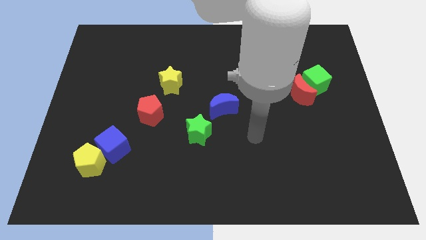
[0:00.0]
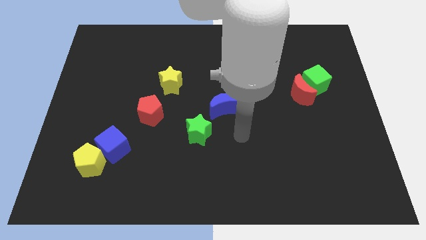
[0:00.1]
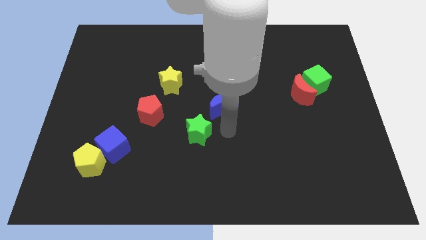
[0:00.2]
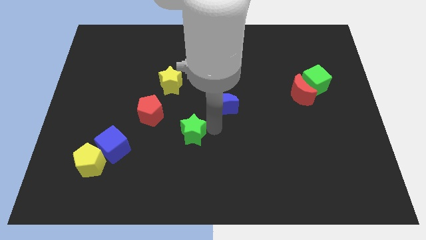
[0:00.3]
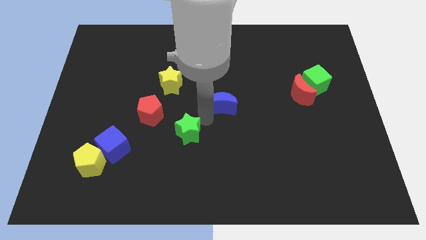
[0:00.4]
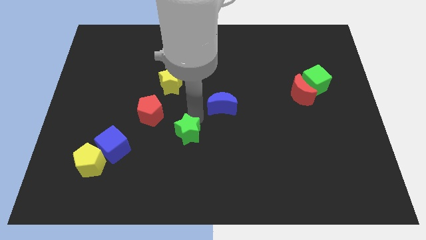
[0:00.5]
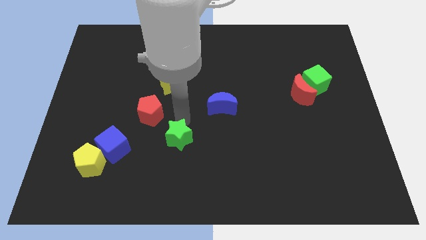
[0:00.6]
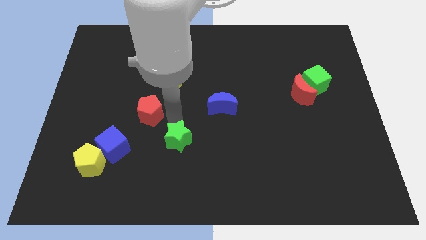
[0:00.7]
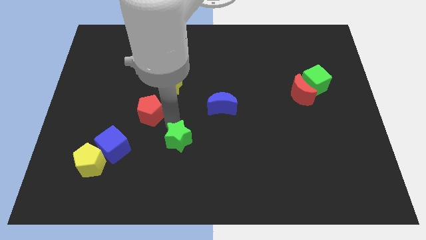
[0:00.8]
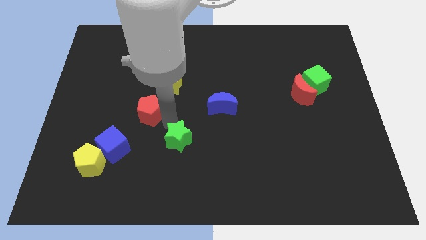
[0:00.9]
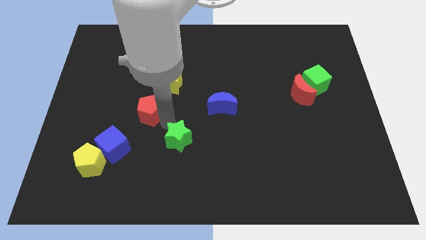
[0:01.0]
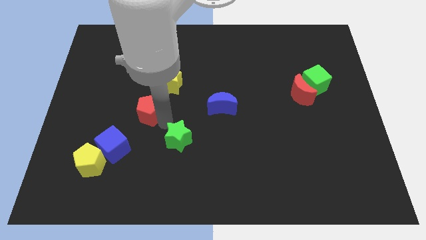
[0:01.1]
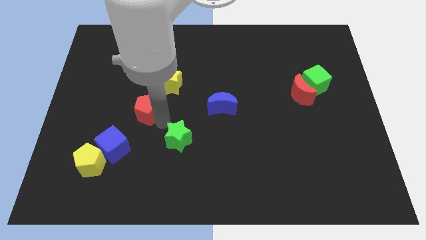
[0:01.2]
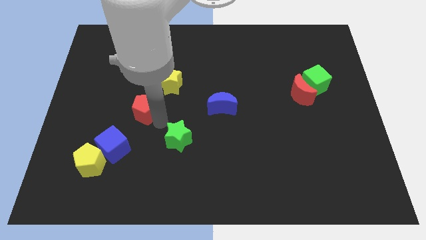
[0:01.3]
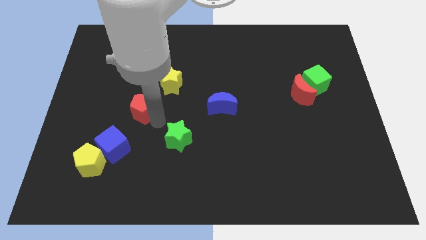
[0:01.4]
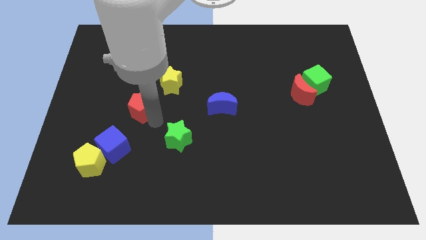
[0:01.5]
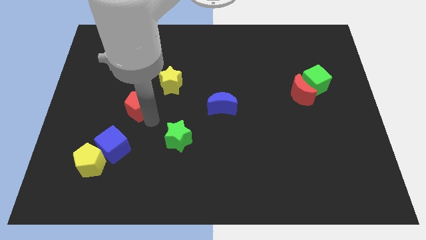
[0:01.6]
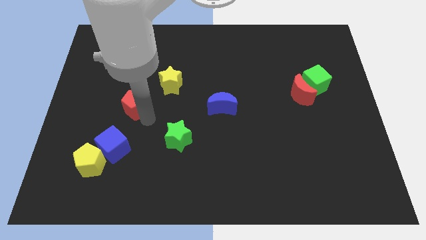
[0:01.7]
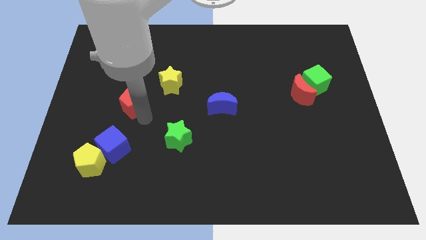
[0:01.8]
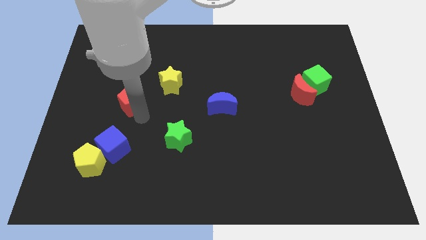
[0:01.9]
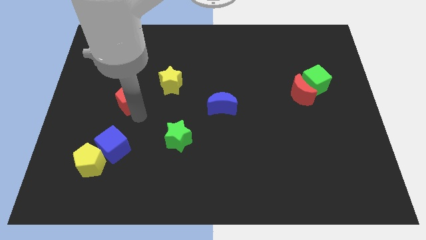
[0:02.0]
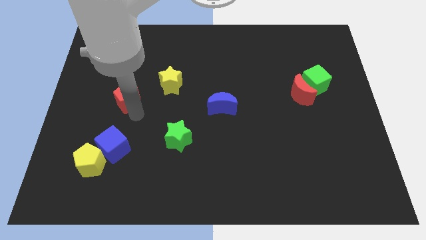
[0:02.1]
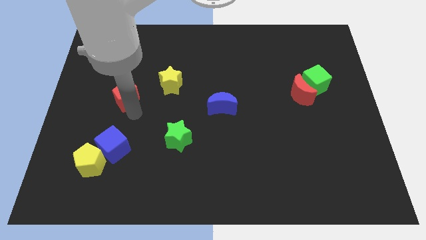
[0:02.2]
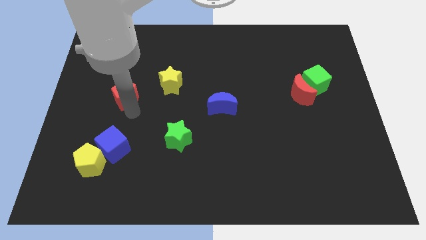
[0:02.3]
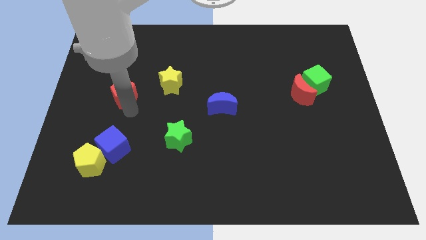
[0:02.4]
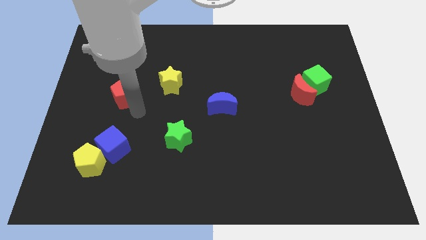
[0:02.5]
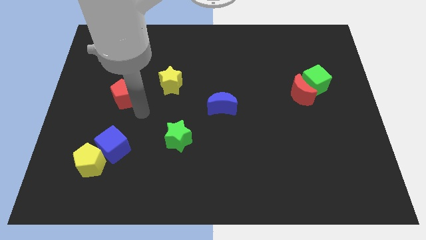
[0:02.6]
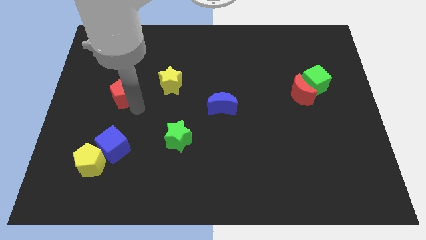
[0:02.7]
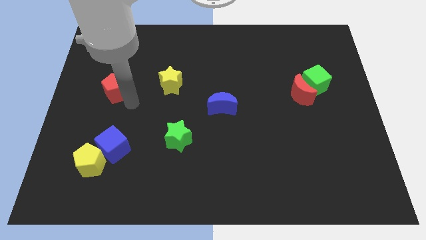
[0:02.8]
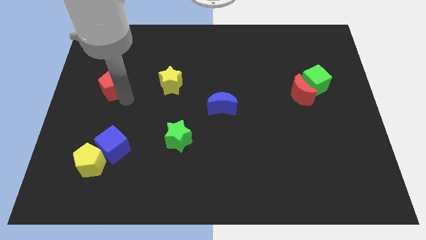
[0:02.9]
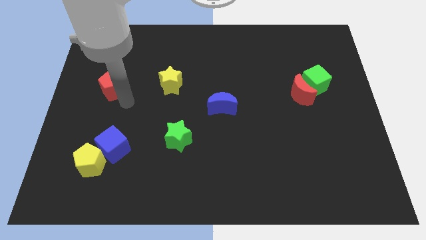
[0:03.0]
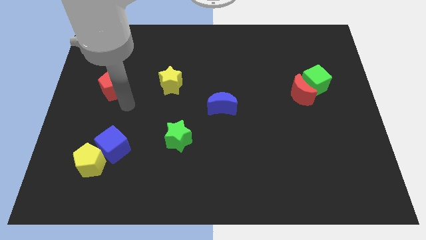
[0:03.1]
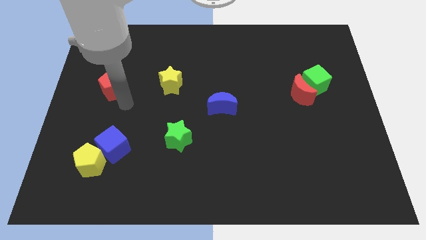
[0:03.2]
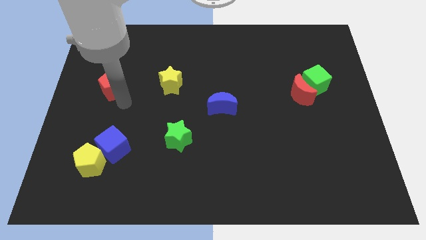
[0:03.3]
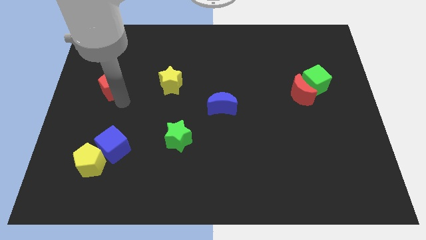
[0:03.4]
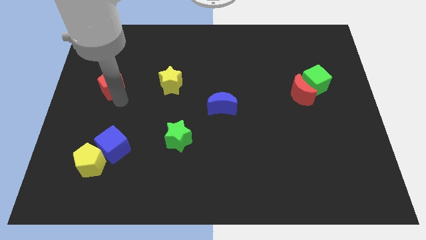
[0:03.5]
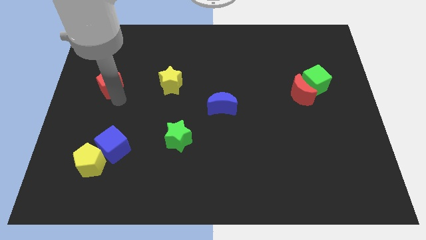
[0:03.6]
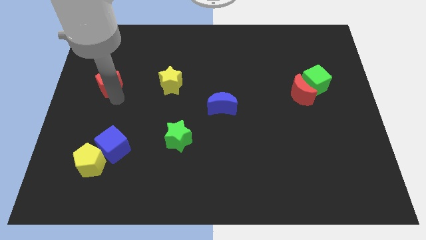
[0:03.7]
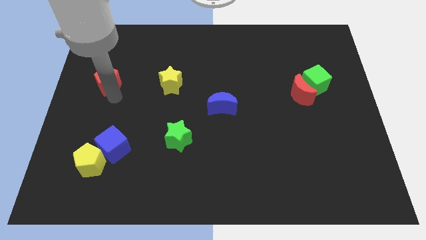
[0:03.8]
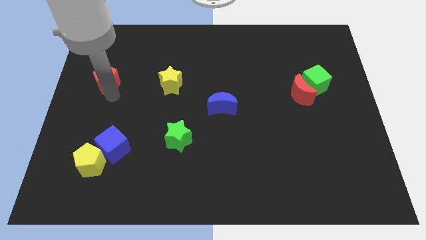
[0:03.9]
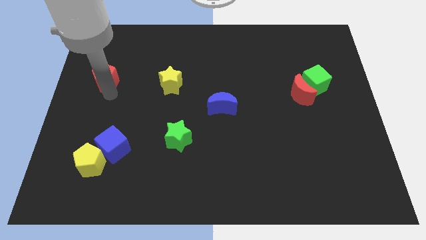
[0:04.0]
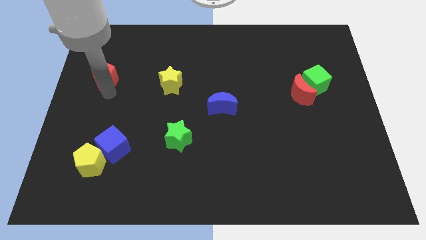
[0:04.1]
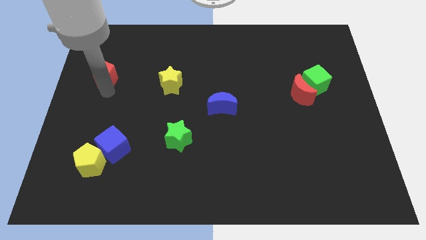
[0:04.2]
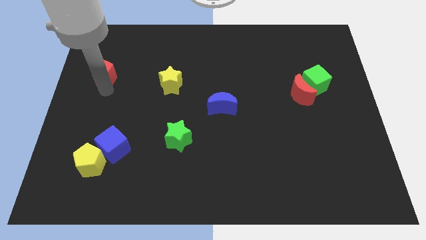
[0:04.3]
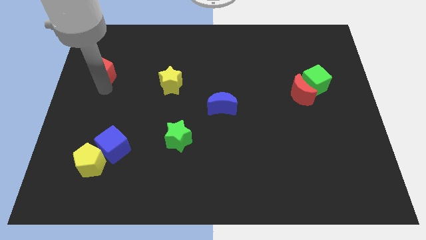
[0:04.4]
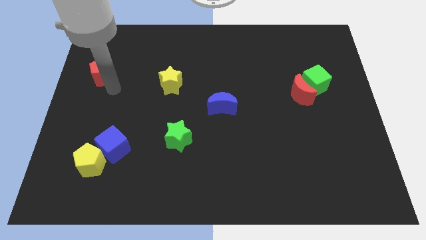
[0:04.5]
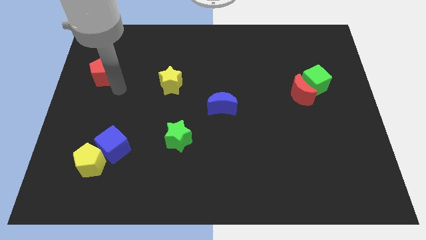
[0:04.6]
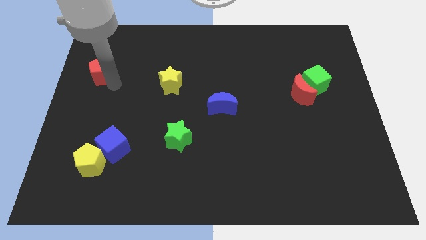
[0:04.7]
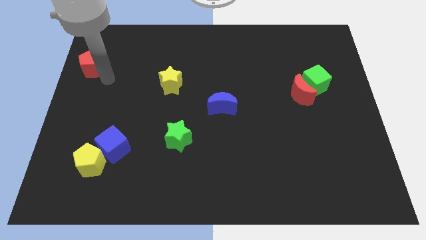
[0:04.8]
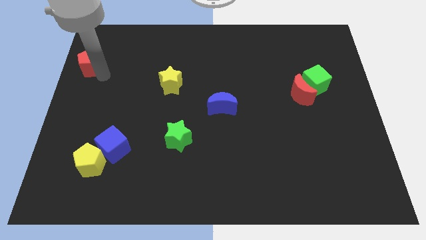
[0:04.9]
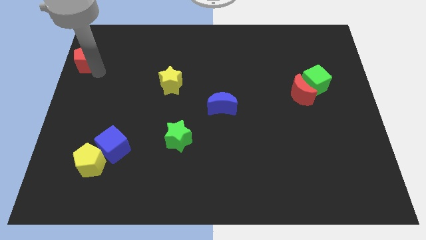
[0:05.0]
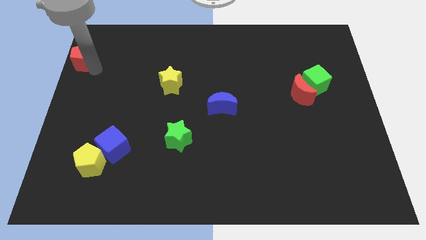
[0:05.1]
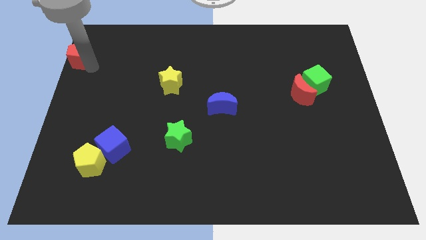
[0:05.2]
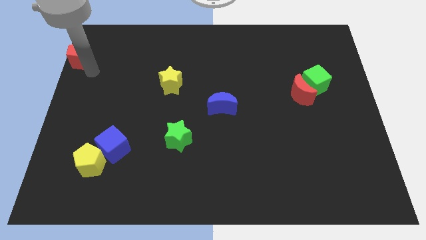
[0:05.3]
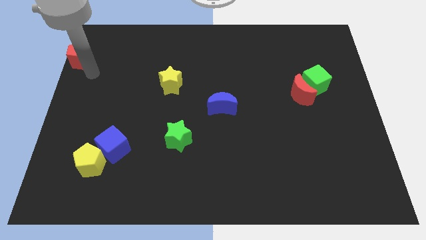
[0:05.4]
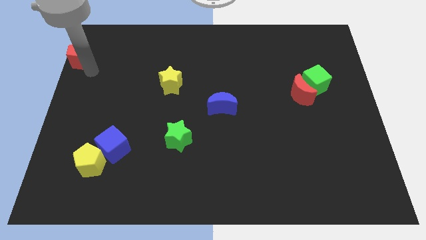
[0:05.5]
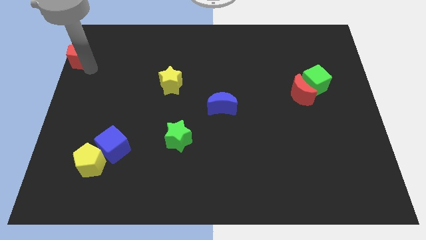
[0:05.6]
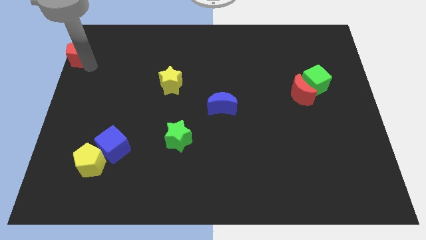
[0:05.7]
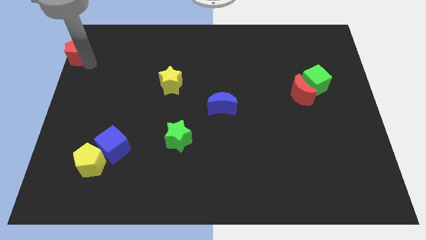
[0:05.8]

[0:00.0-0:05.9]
slide the red pentagon to the top left of the board

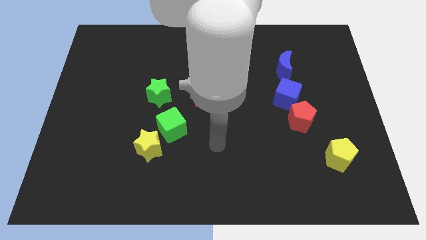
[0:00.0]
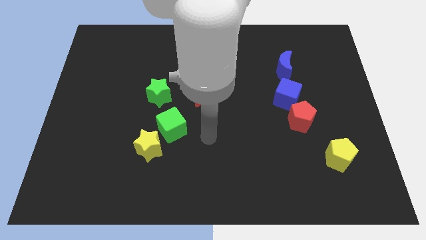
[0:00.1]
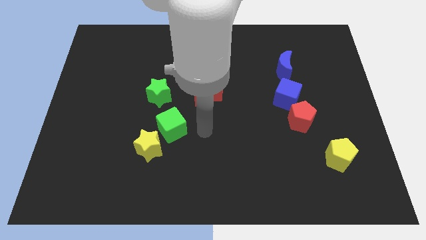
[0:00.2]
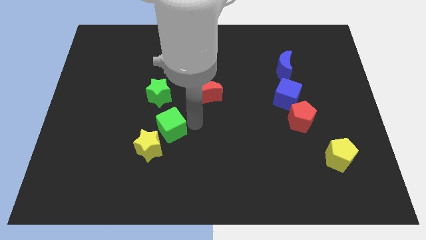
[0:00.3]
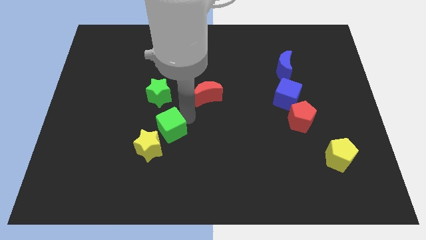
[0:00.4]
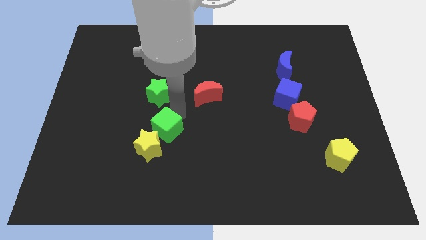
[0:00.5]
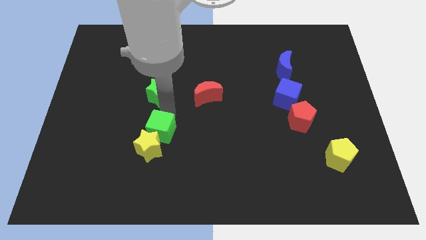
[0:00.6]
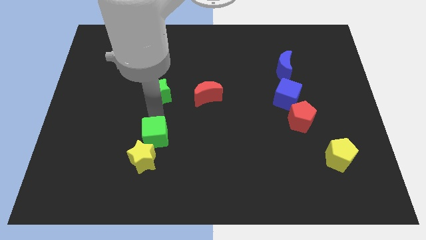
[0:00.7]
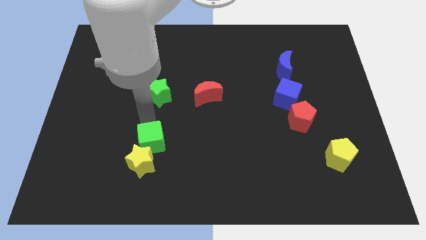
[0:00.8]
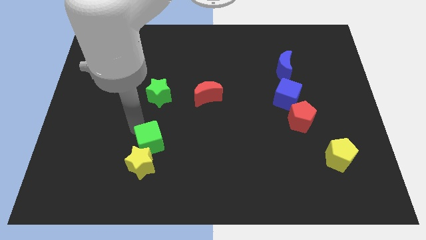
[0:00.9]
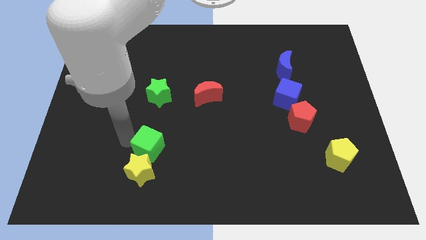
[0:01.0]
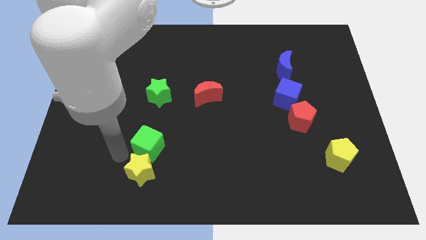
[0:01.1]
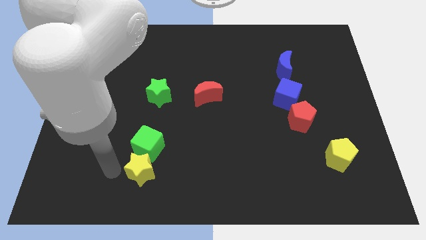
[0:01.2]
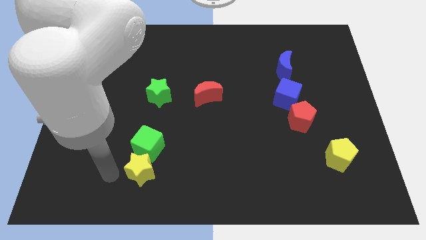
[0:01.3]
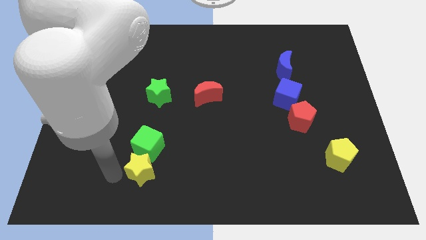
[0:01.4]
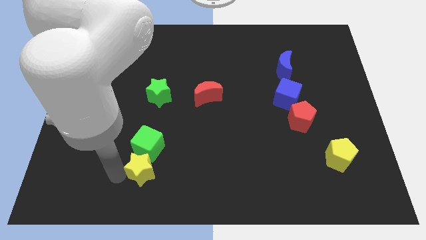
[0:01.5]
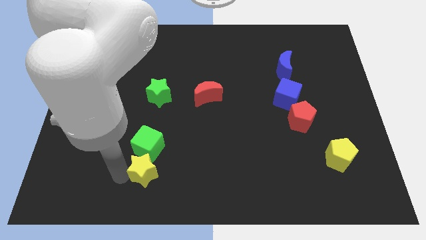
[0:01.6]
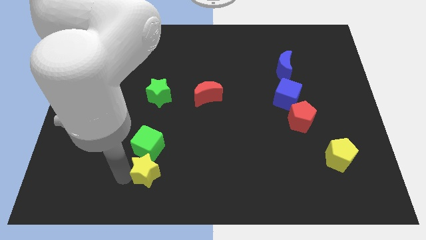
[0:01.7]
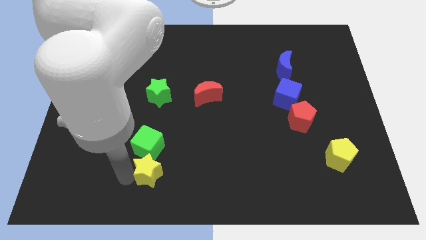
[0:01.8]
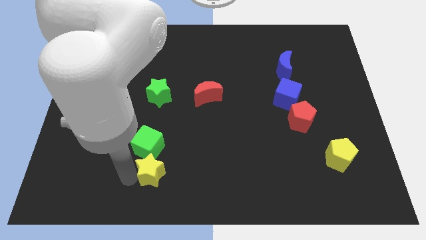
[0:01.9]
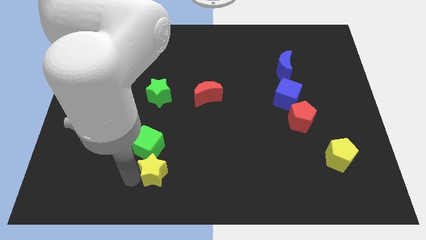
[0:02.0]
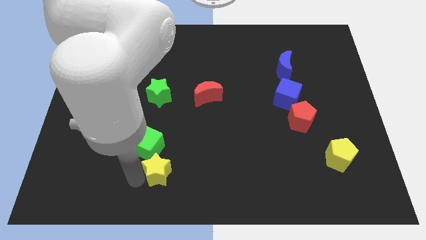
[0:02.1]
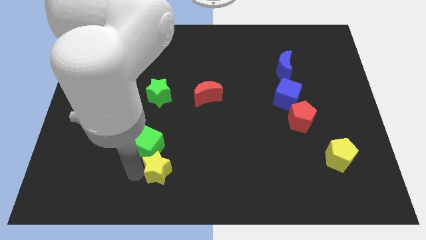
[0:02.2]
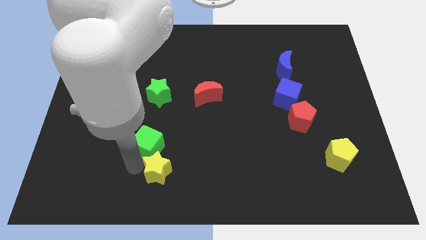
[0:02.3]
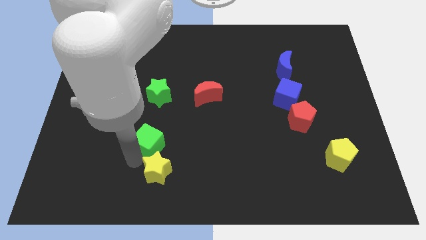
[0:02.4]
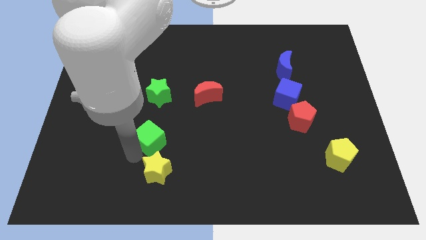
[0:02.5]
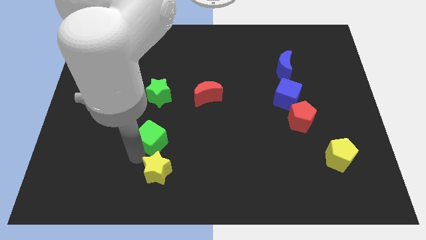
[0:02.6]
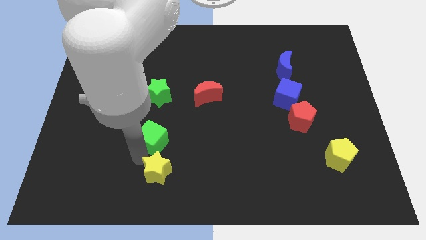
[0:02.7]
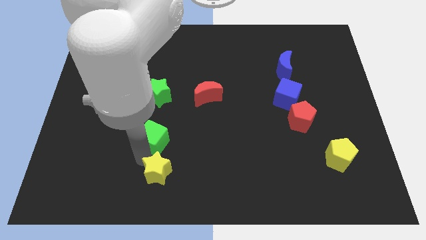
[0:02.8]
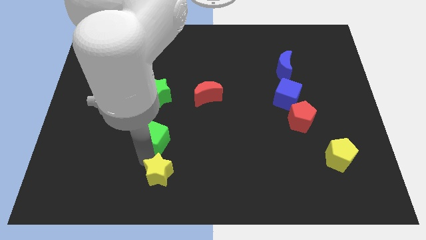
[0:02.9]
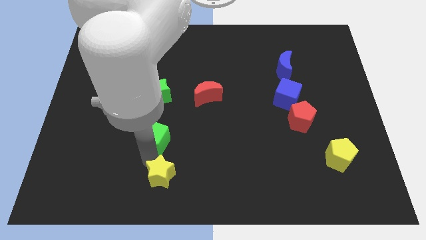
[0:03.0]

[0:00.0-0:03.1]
put the yellow star to the bottom side
